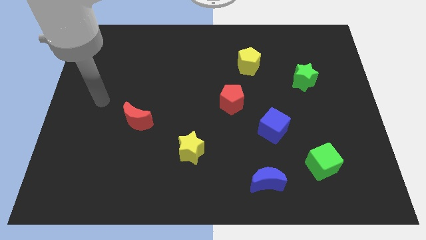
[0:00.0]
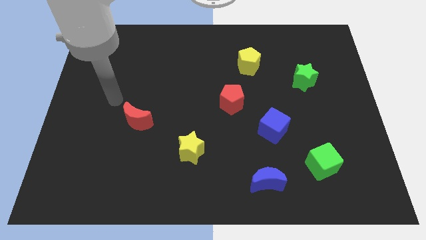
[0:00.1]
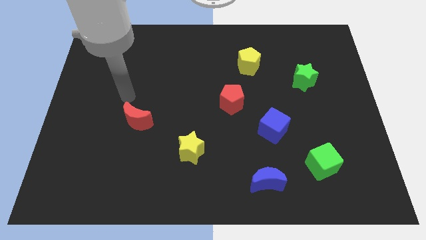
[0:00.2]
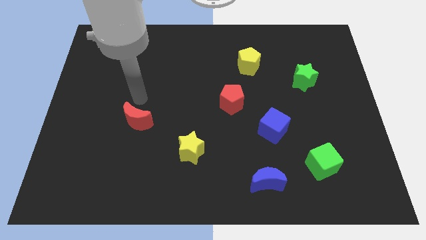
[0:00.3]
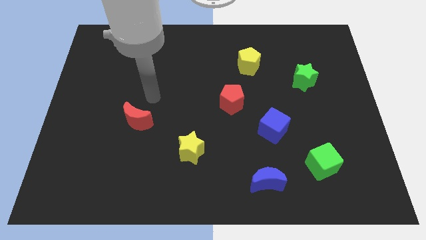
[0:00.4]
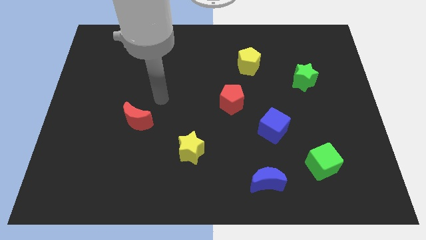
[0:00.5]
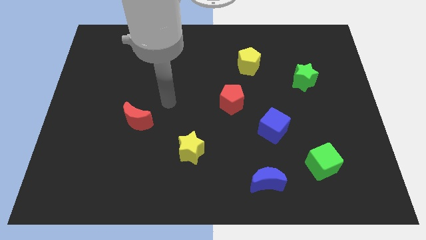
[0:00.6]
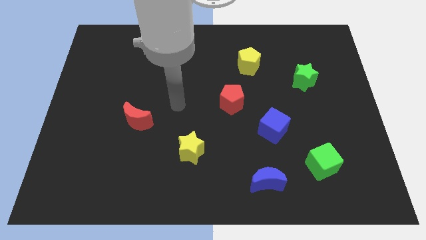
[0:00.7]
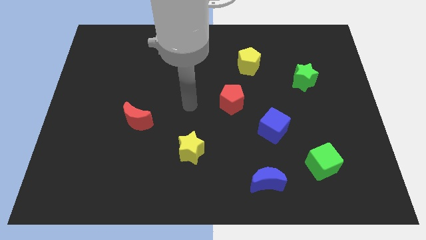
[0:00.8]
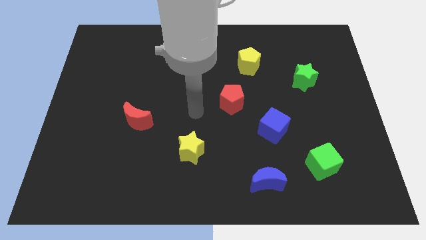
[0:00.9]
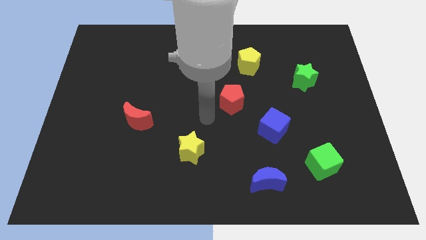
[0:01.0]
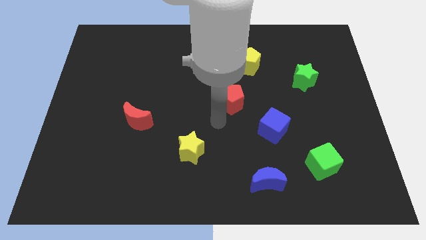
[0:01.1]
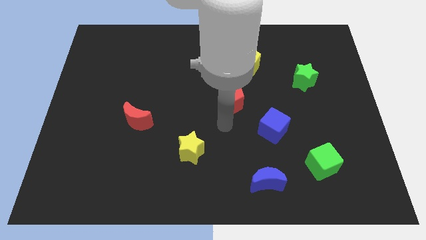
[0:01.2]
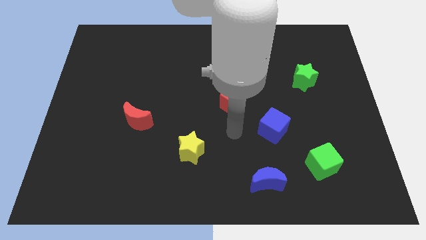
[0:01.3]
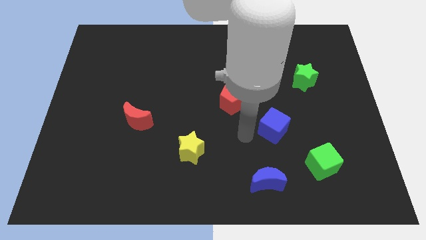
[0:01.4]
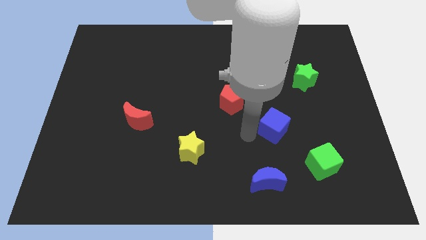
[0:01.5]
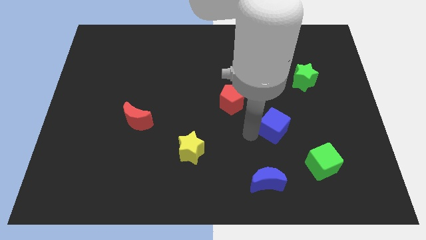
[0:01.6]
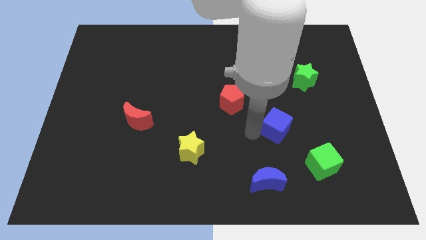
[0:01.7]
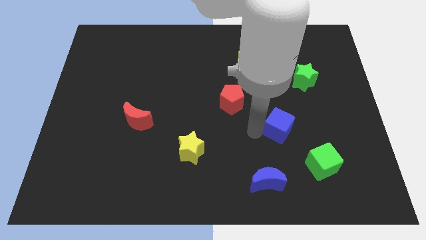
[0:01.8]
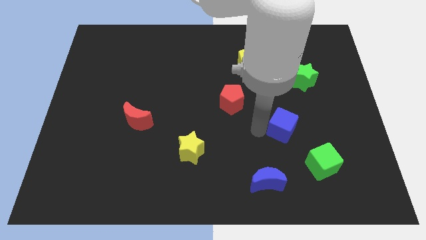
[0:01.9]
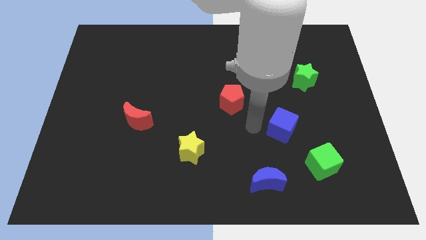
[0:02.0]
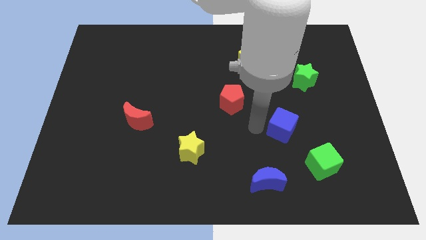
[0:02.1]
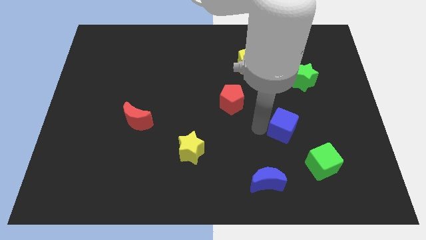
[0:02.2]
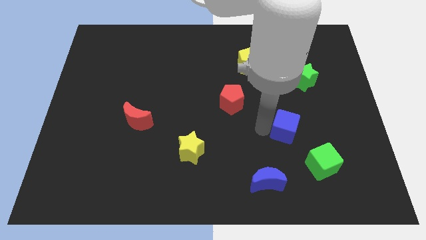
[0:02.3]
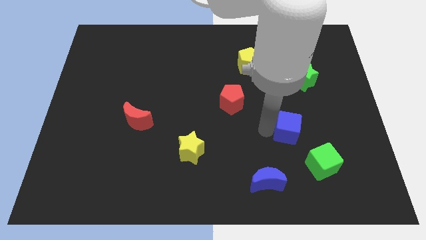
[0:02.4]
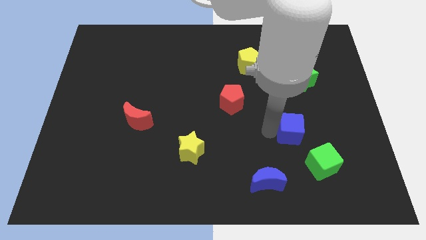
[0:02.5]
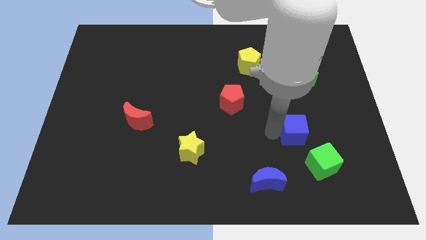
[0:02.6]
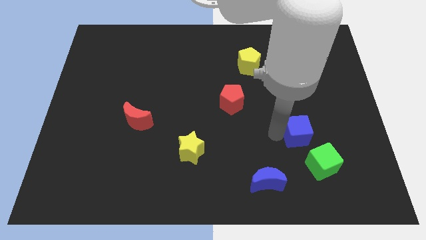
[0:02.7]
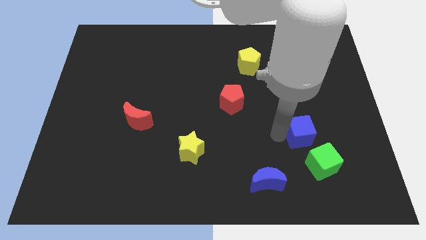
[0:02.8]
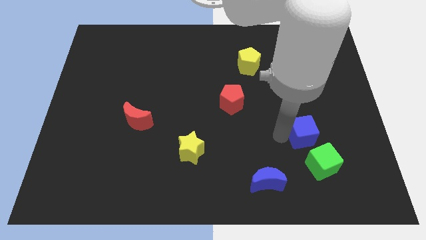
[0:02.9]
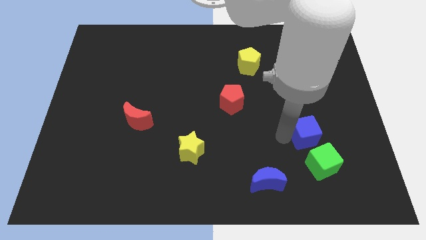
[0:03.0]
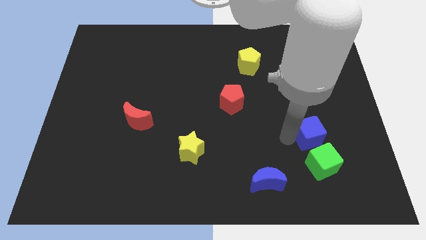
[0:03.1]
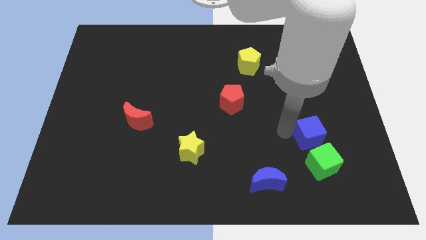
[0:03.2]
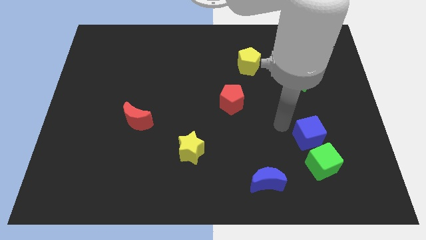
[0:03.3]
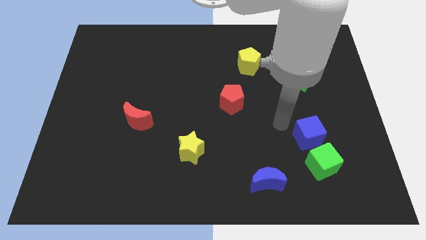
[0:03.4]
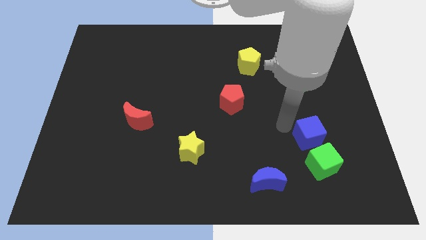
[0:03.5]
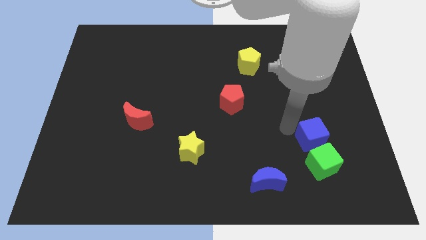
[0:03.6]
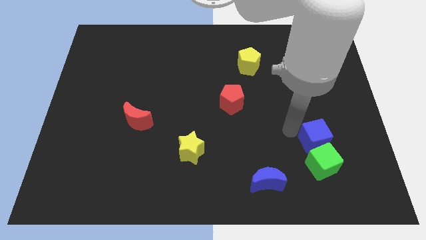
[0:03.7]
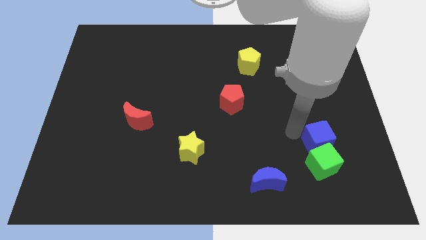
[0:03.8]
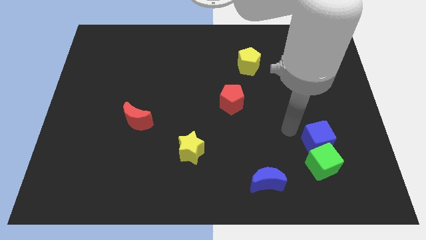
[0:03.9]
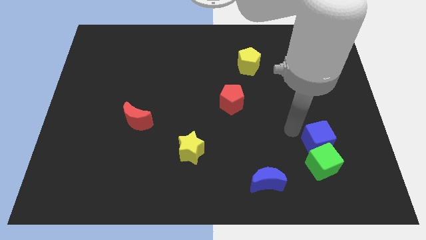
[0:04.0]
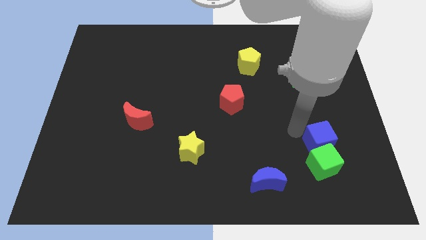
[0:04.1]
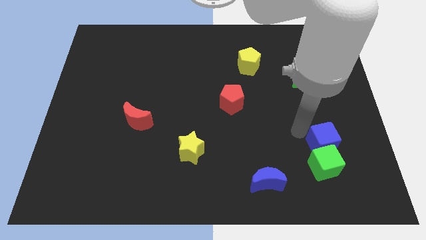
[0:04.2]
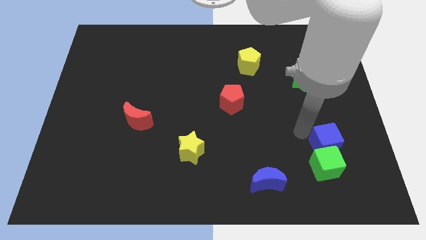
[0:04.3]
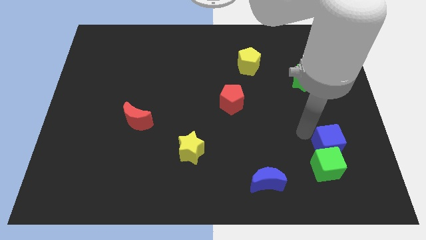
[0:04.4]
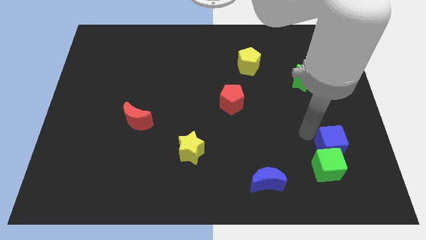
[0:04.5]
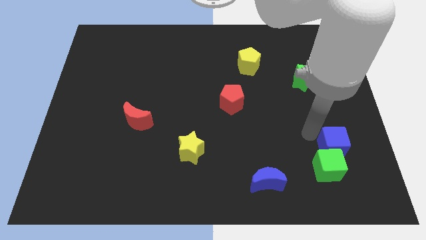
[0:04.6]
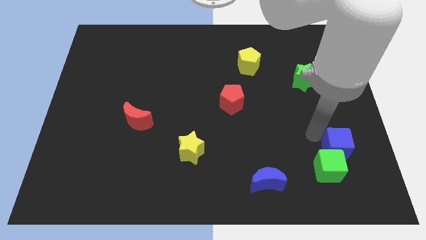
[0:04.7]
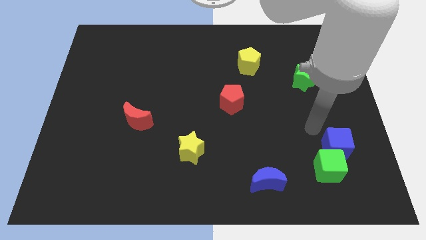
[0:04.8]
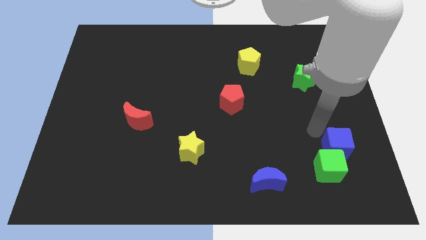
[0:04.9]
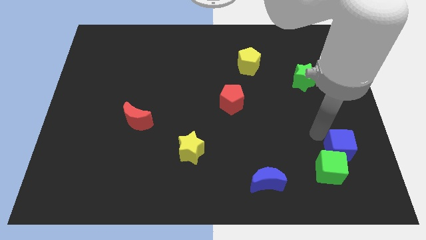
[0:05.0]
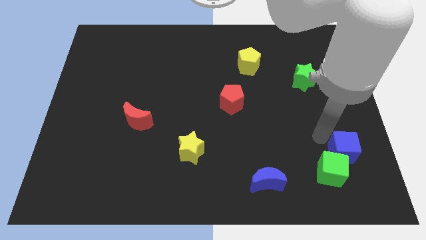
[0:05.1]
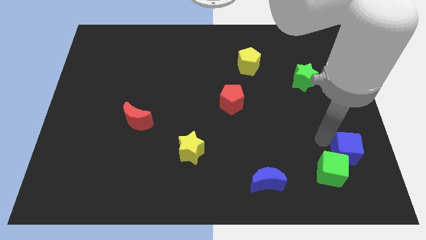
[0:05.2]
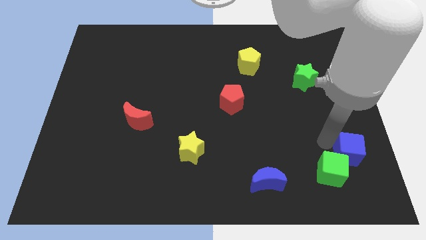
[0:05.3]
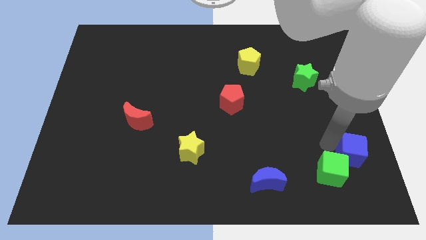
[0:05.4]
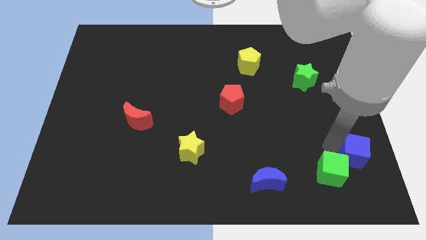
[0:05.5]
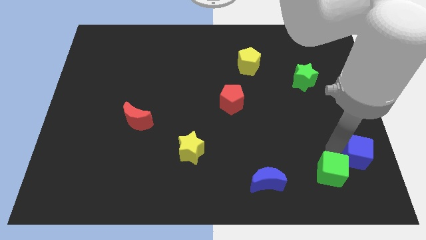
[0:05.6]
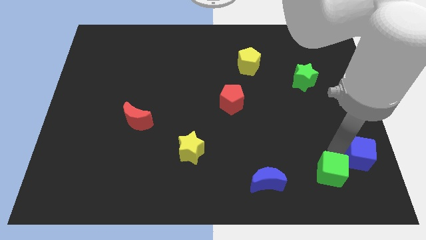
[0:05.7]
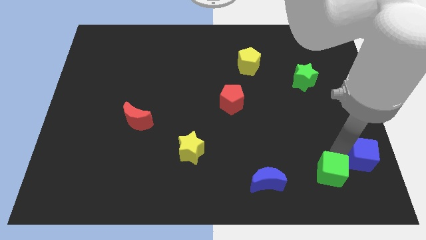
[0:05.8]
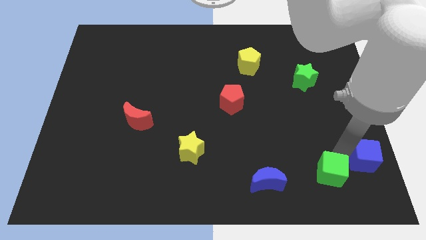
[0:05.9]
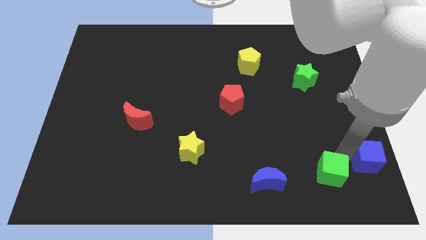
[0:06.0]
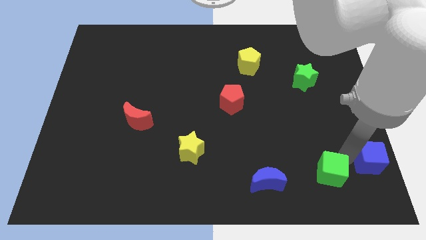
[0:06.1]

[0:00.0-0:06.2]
move the blue cube to the bottom right of the board
